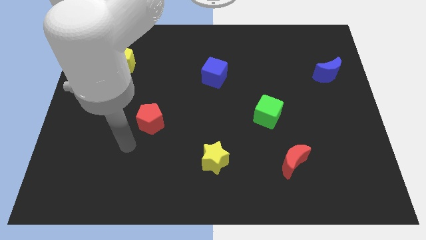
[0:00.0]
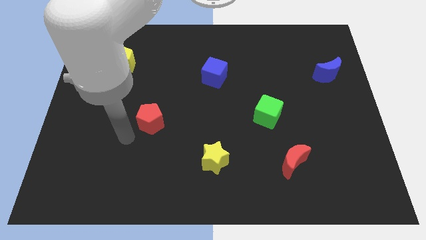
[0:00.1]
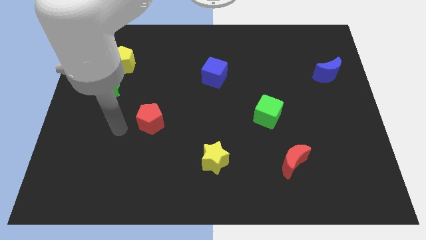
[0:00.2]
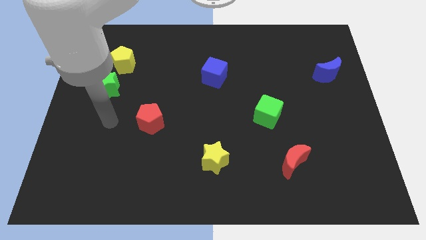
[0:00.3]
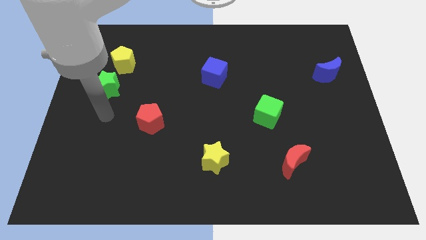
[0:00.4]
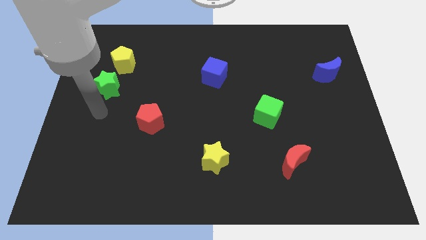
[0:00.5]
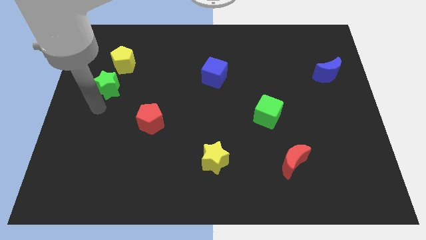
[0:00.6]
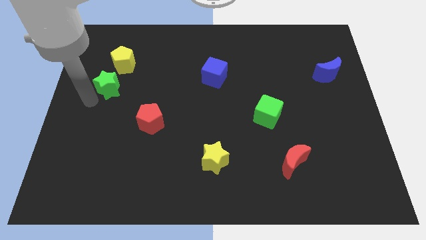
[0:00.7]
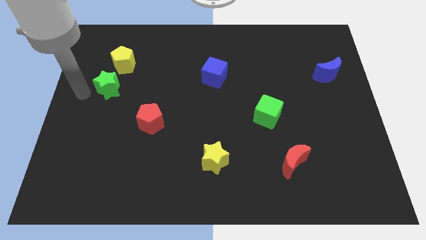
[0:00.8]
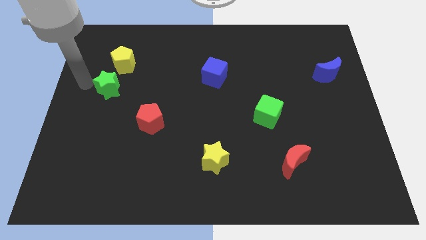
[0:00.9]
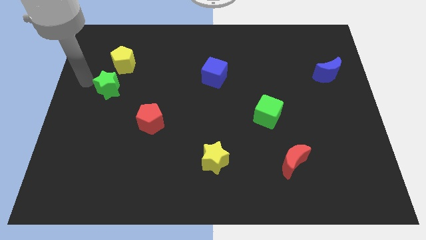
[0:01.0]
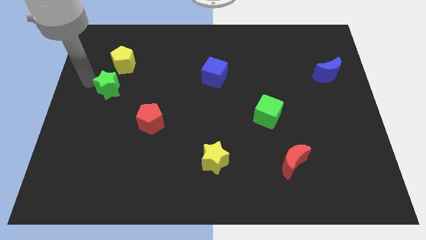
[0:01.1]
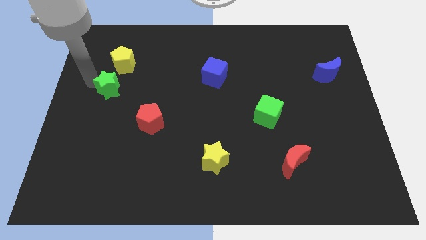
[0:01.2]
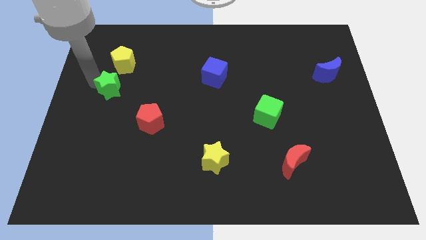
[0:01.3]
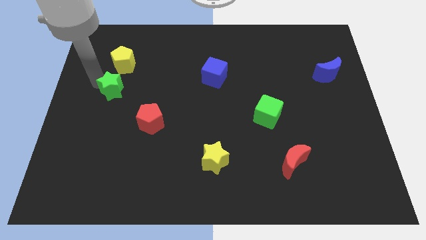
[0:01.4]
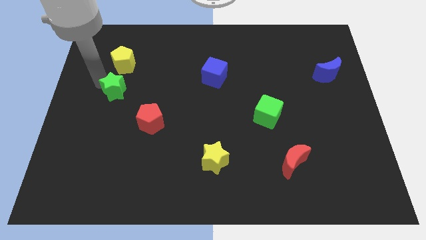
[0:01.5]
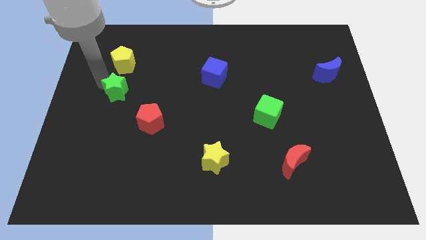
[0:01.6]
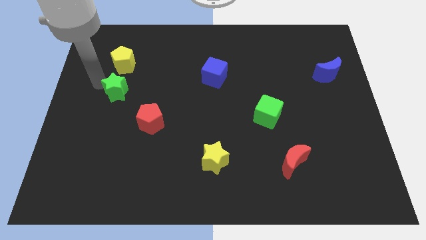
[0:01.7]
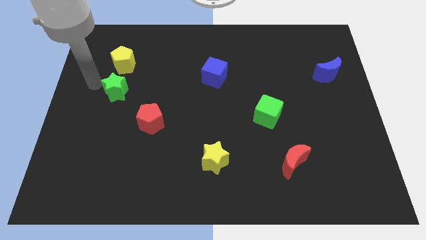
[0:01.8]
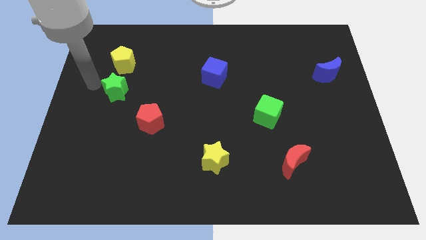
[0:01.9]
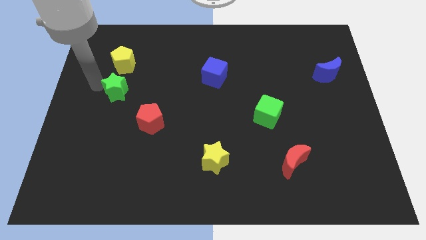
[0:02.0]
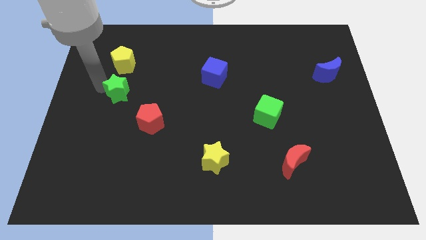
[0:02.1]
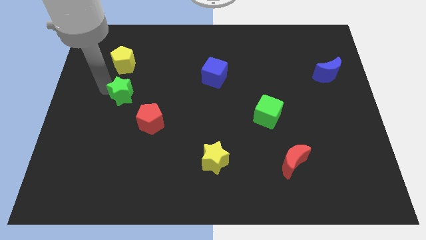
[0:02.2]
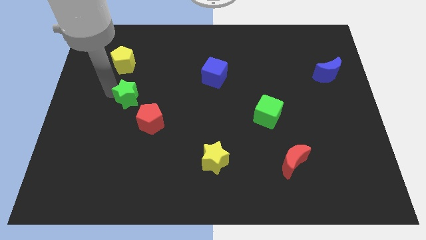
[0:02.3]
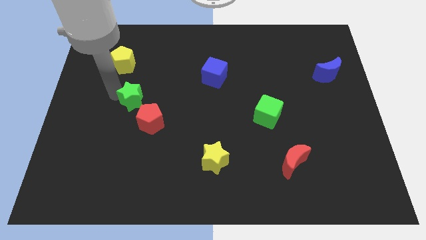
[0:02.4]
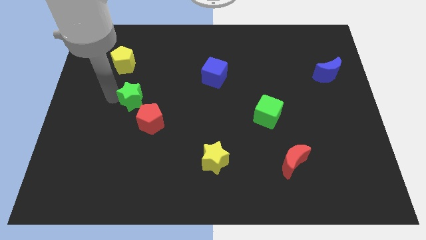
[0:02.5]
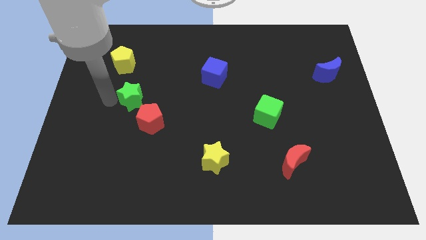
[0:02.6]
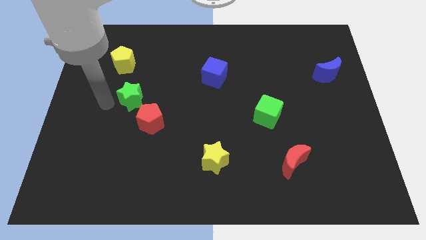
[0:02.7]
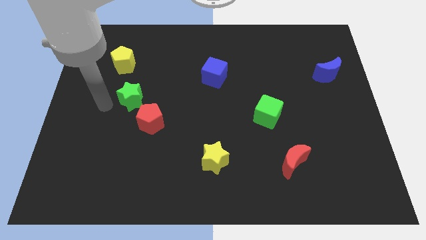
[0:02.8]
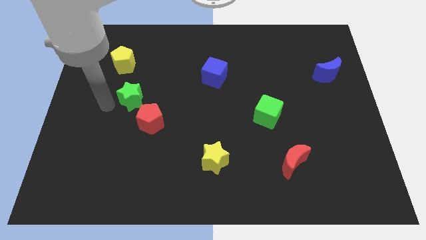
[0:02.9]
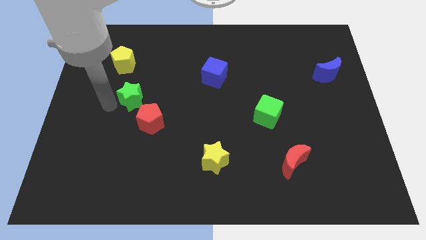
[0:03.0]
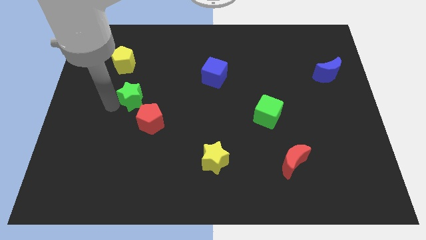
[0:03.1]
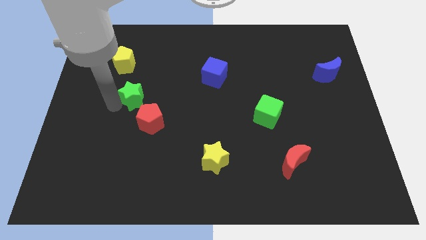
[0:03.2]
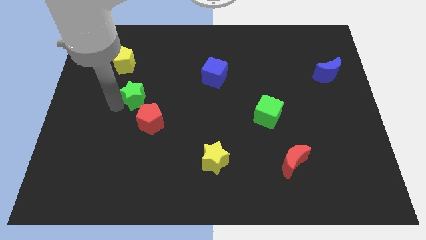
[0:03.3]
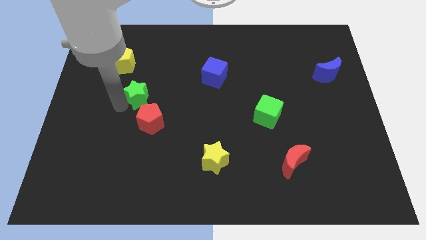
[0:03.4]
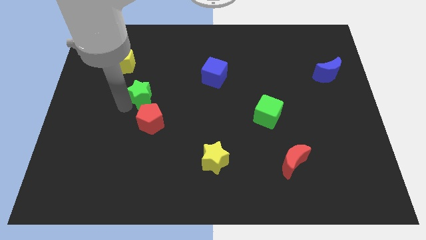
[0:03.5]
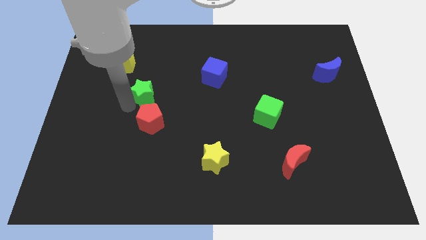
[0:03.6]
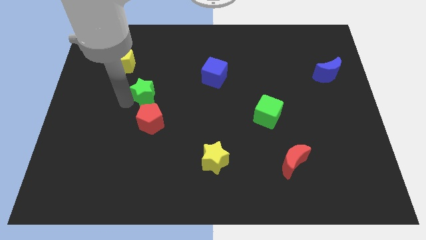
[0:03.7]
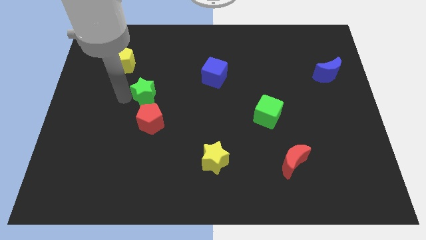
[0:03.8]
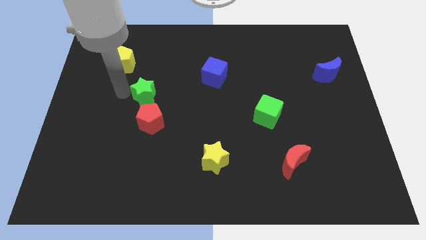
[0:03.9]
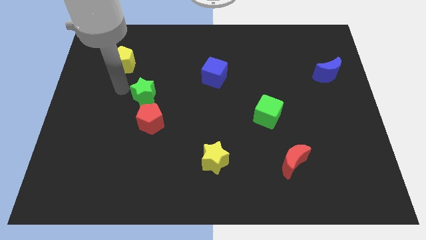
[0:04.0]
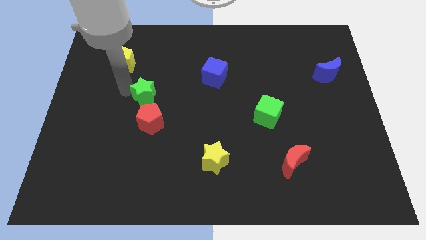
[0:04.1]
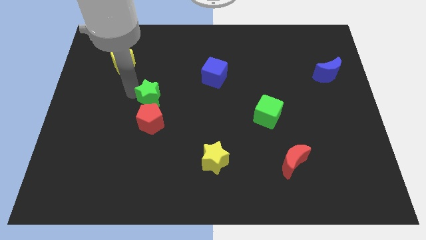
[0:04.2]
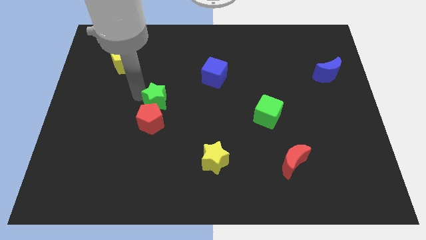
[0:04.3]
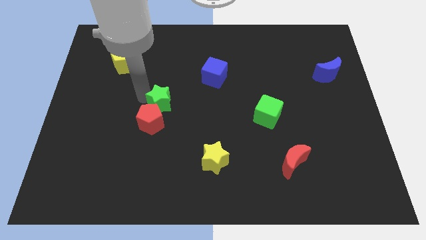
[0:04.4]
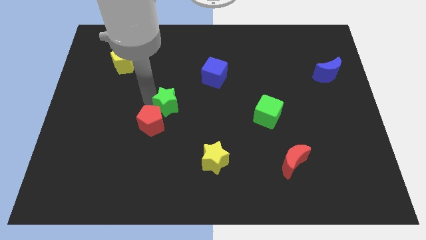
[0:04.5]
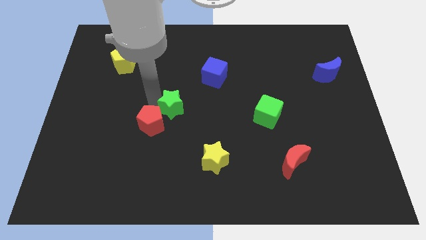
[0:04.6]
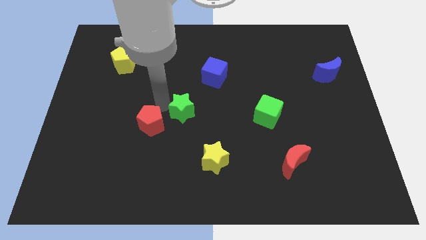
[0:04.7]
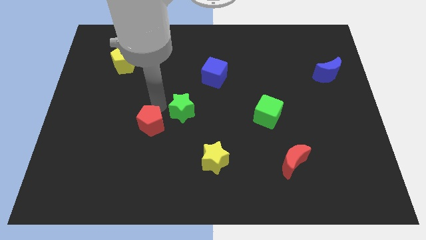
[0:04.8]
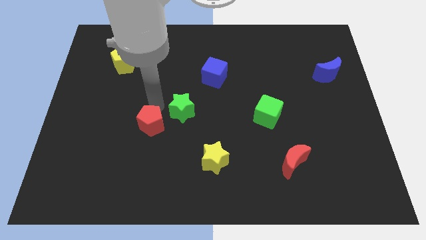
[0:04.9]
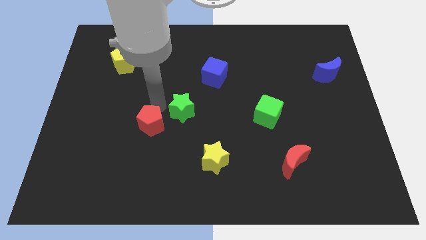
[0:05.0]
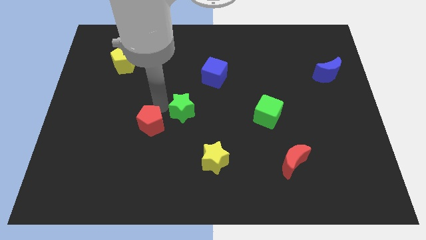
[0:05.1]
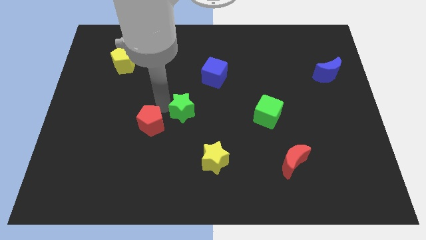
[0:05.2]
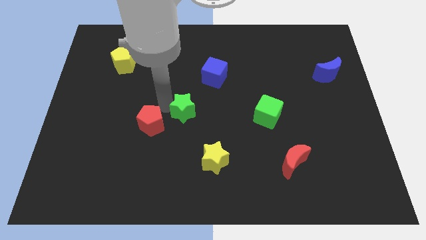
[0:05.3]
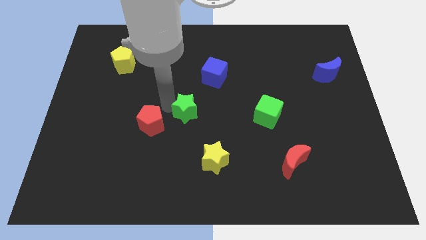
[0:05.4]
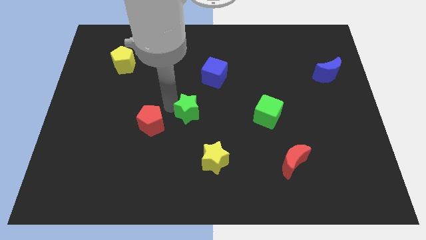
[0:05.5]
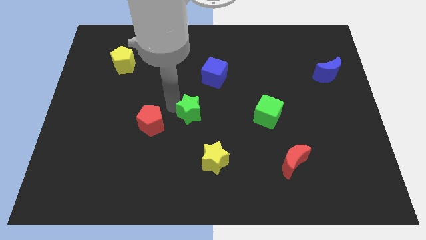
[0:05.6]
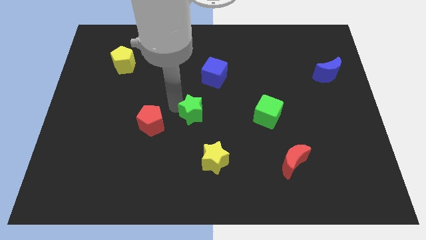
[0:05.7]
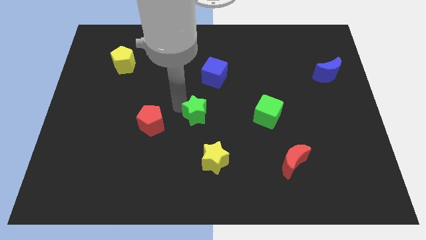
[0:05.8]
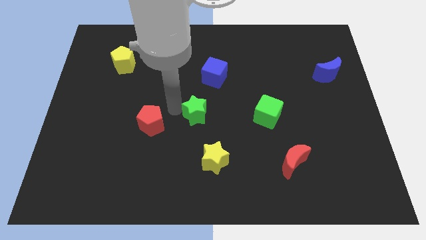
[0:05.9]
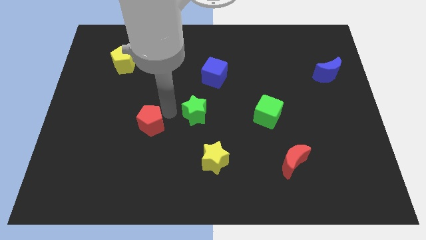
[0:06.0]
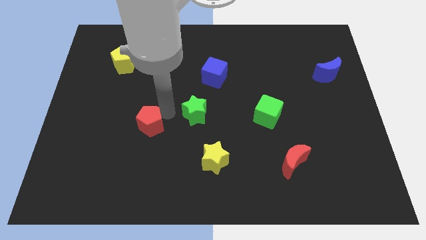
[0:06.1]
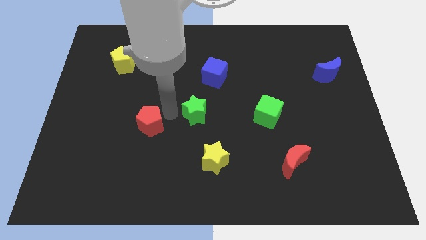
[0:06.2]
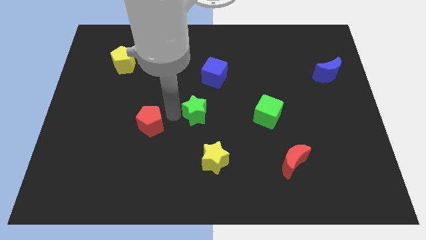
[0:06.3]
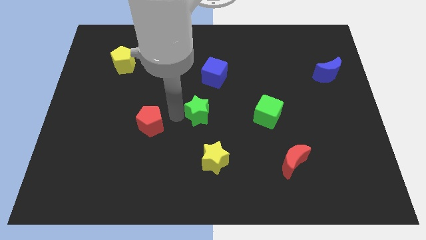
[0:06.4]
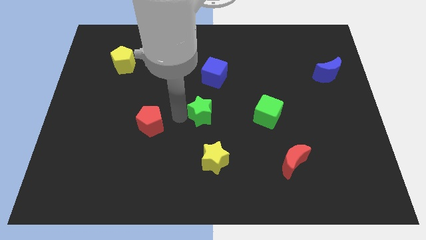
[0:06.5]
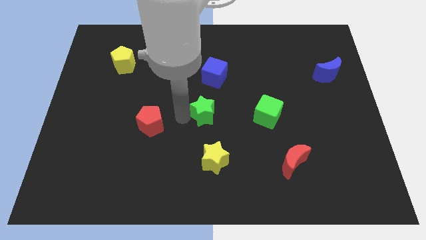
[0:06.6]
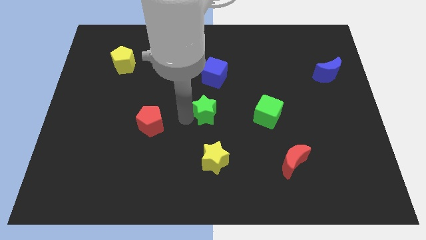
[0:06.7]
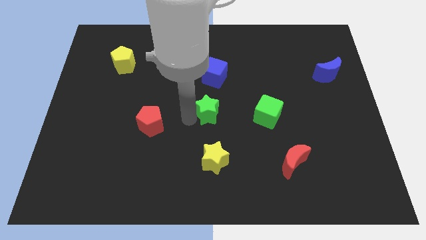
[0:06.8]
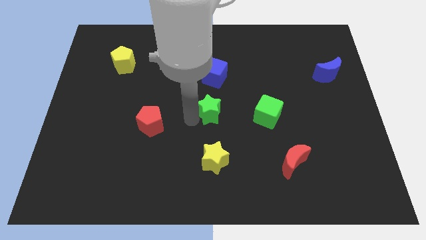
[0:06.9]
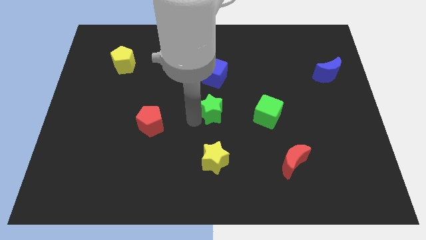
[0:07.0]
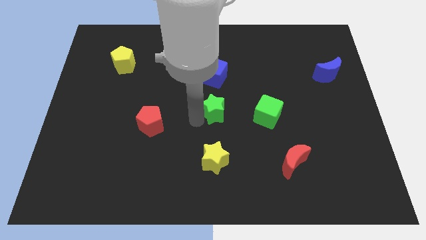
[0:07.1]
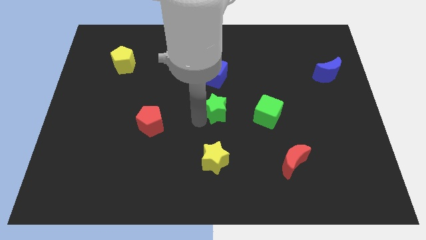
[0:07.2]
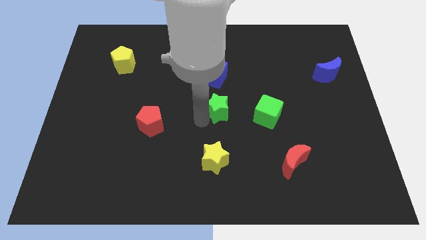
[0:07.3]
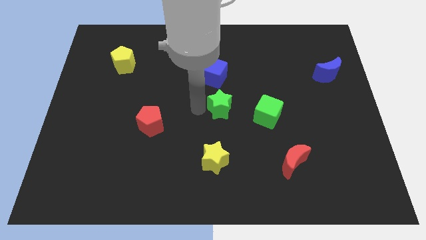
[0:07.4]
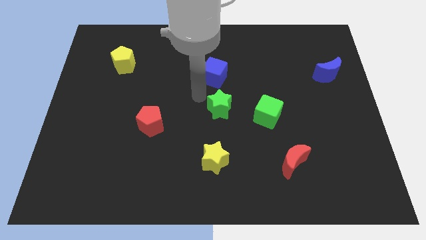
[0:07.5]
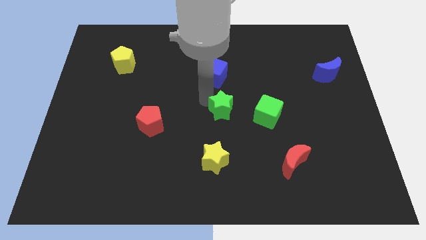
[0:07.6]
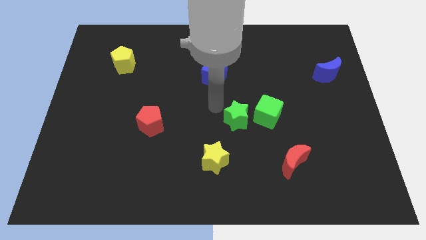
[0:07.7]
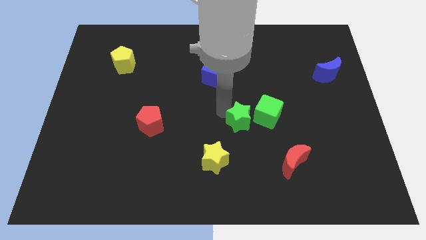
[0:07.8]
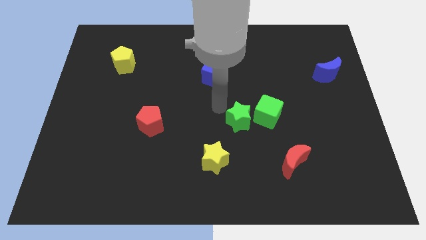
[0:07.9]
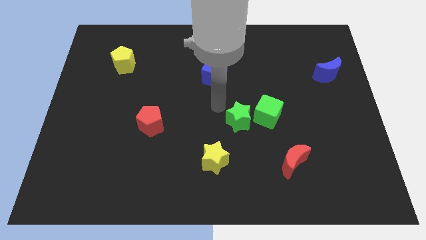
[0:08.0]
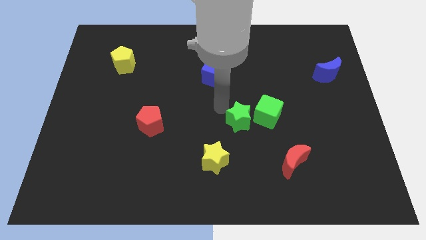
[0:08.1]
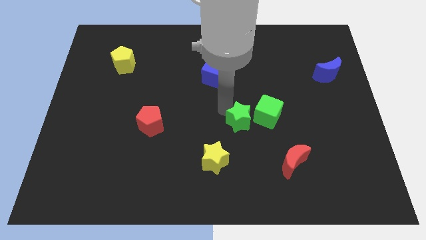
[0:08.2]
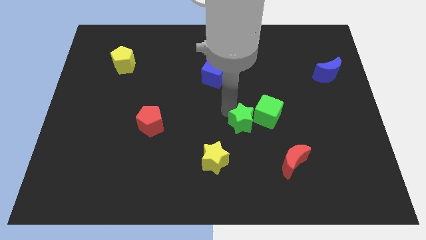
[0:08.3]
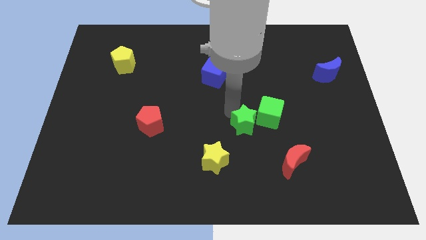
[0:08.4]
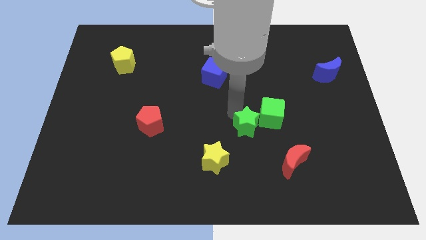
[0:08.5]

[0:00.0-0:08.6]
move the green star to the top left side of the red moon
